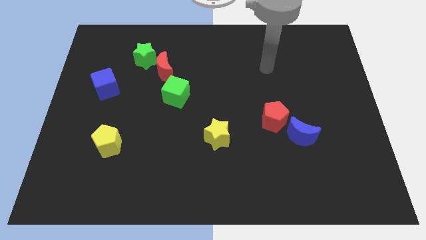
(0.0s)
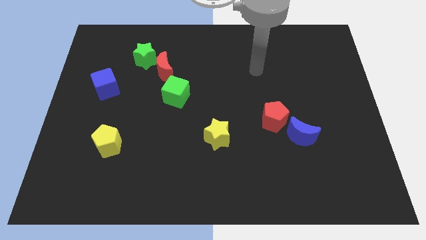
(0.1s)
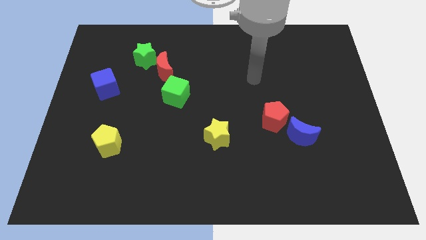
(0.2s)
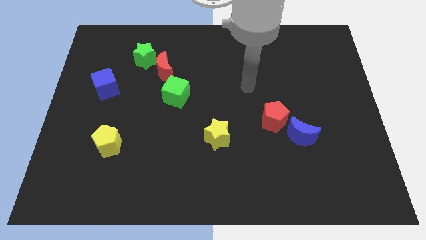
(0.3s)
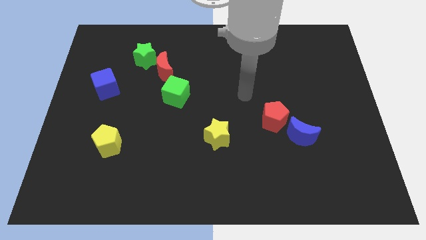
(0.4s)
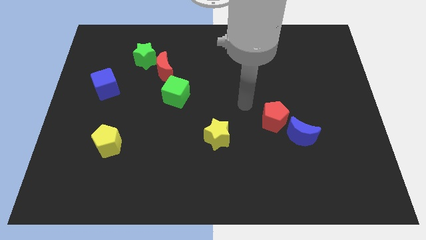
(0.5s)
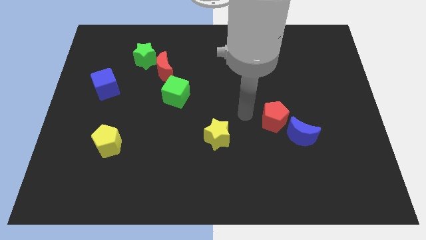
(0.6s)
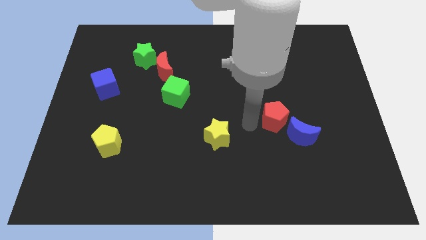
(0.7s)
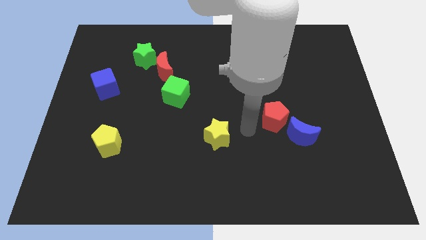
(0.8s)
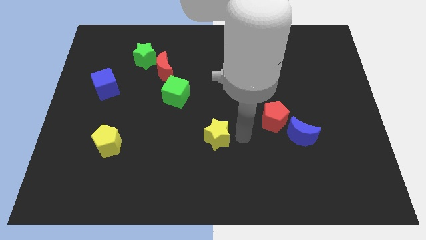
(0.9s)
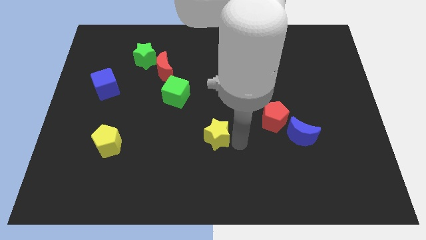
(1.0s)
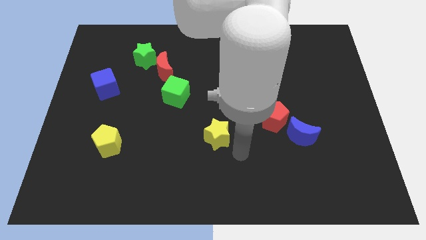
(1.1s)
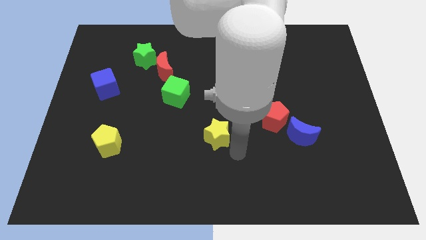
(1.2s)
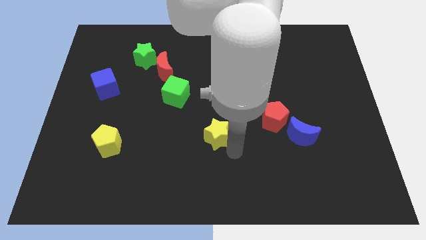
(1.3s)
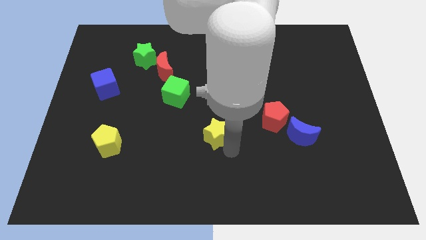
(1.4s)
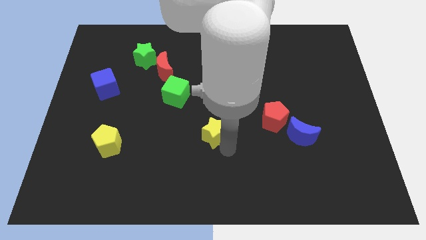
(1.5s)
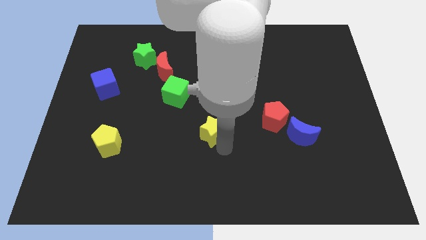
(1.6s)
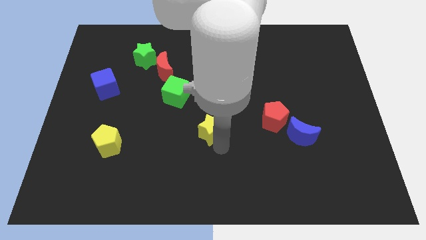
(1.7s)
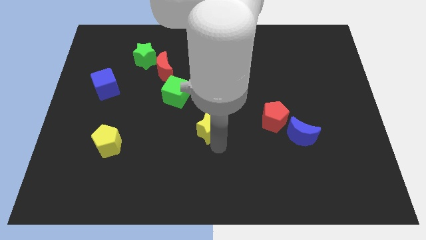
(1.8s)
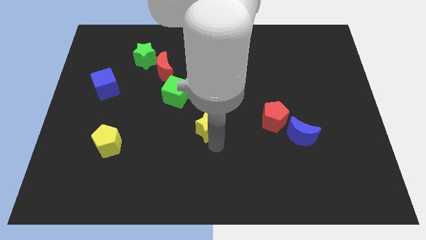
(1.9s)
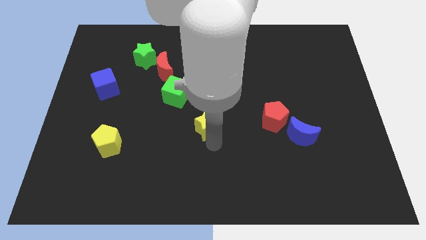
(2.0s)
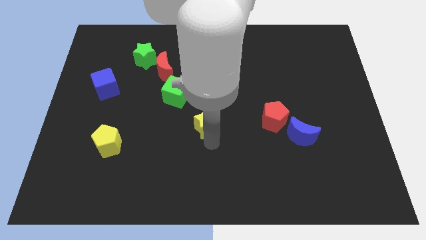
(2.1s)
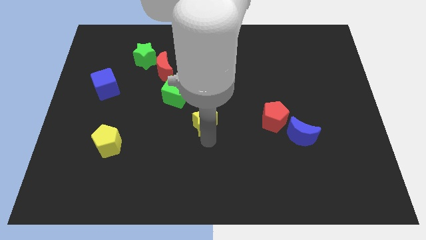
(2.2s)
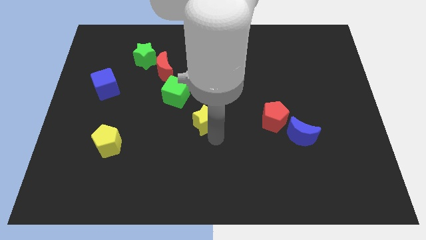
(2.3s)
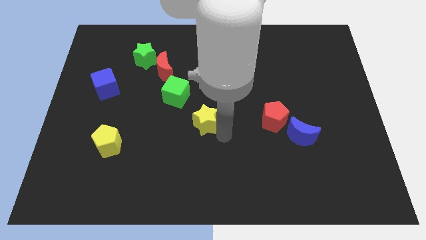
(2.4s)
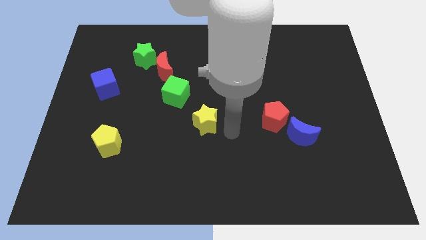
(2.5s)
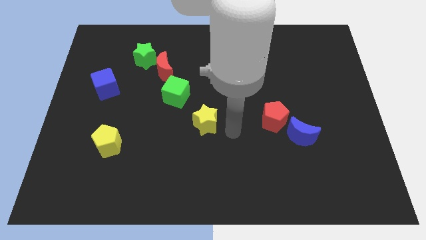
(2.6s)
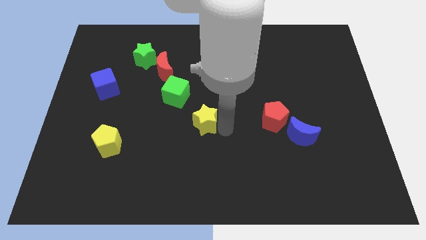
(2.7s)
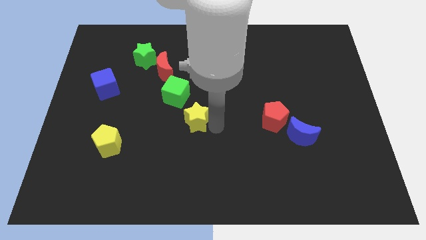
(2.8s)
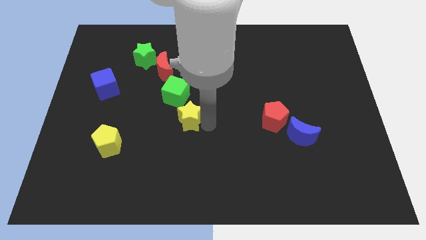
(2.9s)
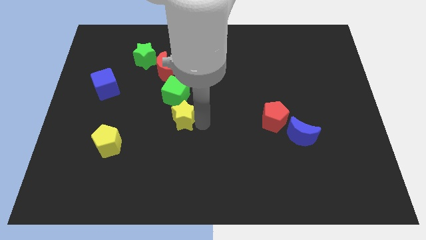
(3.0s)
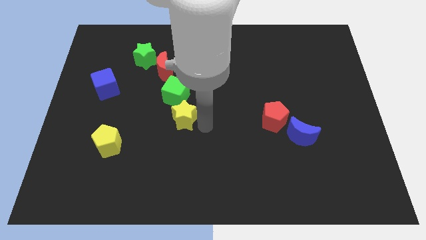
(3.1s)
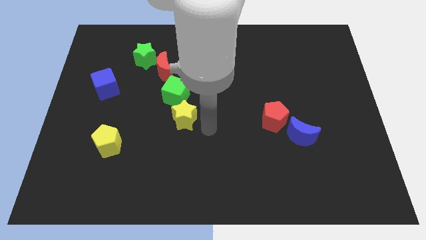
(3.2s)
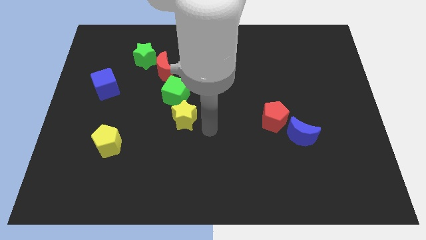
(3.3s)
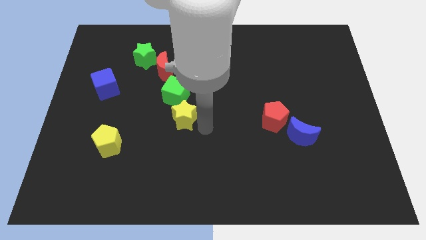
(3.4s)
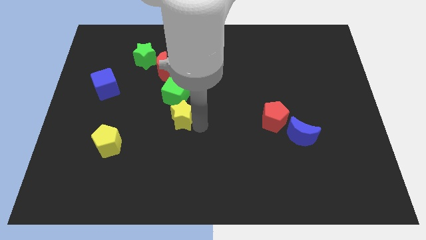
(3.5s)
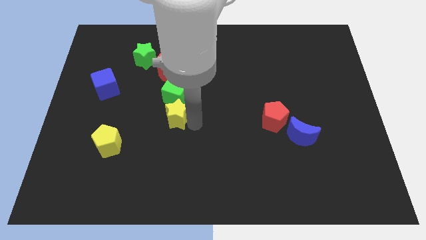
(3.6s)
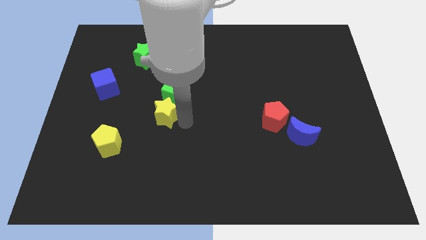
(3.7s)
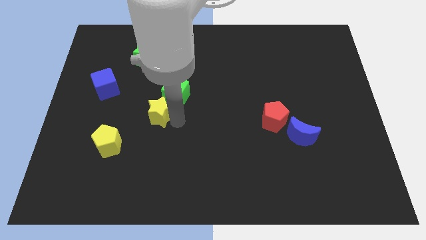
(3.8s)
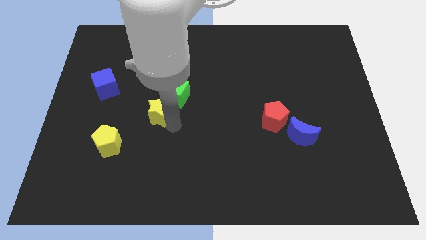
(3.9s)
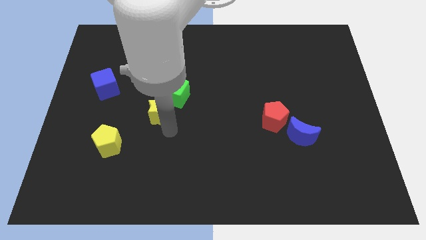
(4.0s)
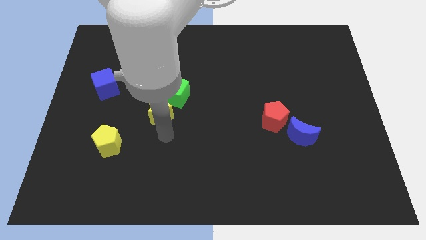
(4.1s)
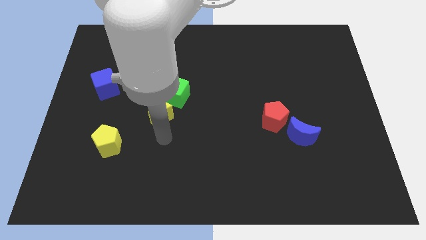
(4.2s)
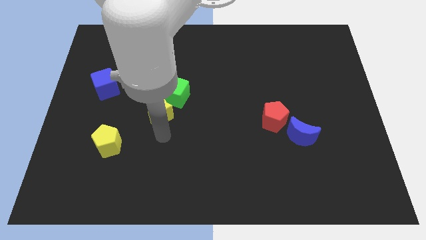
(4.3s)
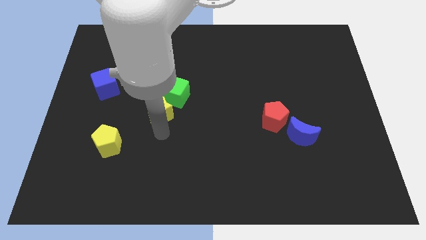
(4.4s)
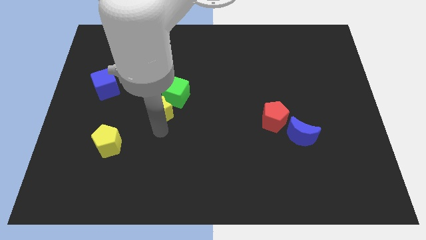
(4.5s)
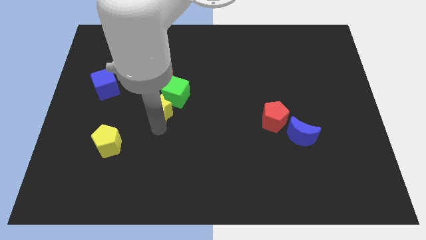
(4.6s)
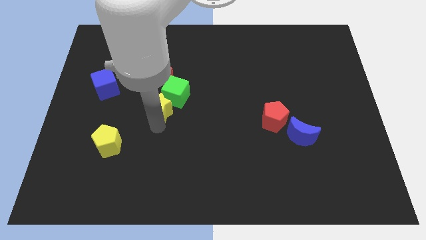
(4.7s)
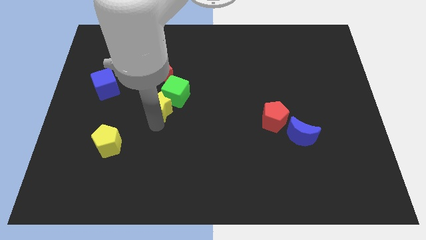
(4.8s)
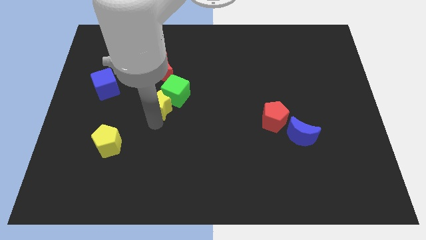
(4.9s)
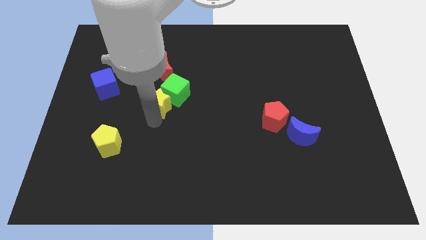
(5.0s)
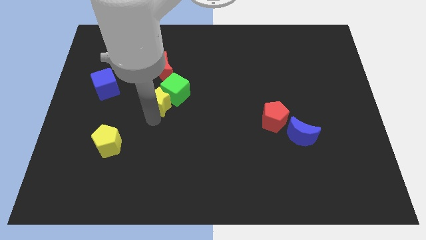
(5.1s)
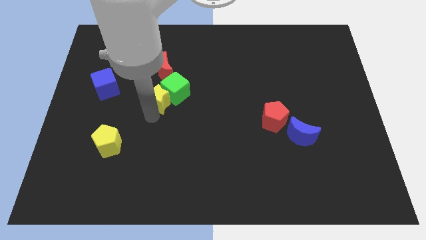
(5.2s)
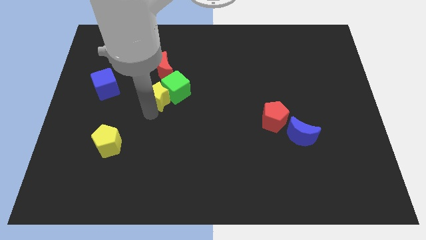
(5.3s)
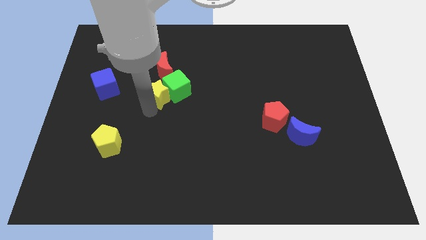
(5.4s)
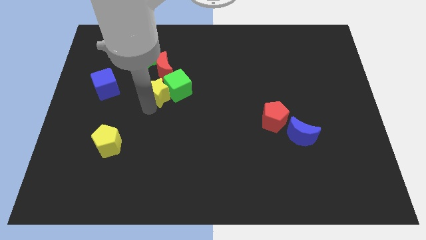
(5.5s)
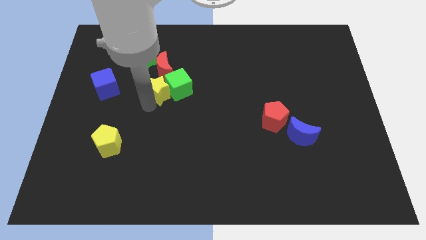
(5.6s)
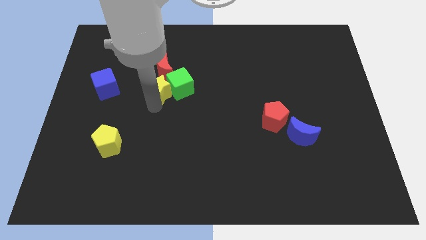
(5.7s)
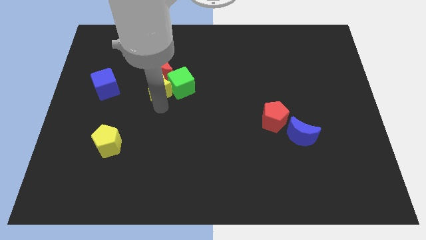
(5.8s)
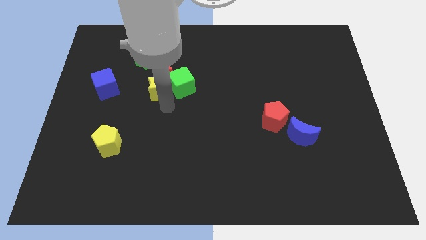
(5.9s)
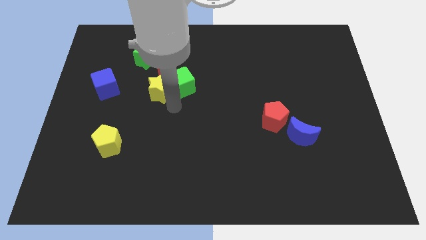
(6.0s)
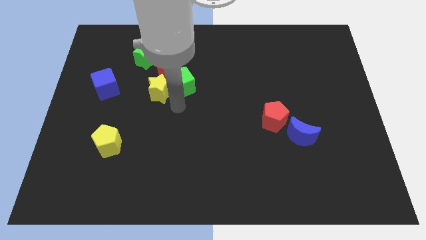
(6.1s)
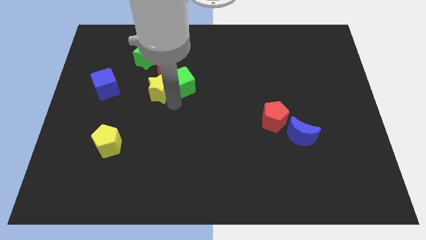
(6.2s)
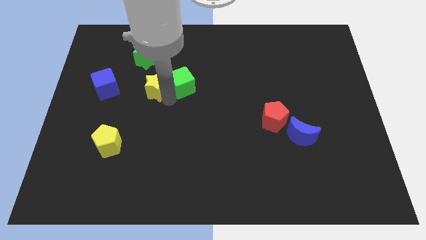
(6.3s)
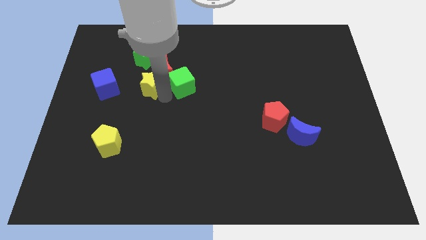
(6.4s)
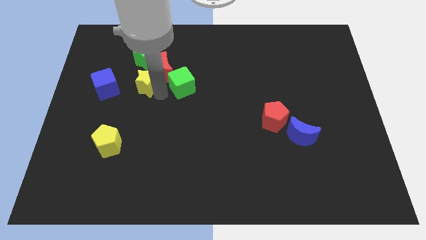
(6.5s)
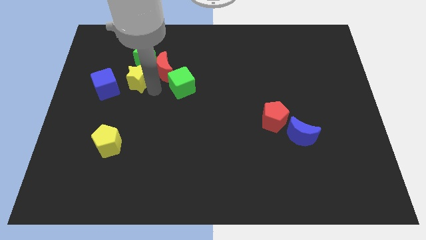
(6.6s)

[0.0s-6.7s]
push the yellow star to the left of the red moon
